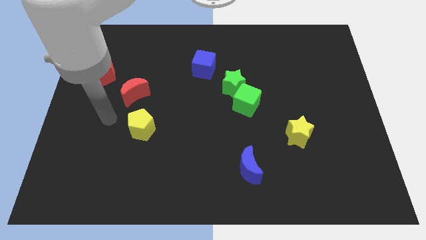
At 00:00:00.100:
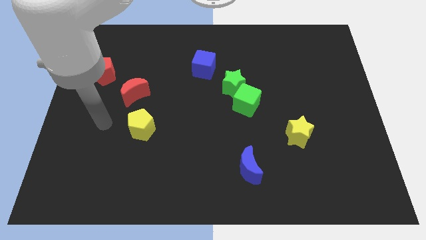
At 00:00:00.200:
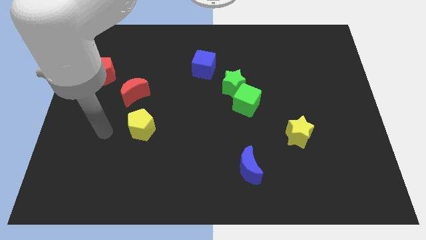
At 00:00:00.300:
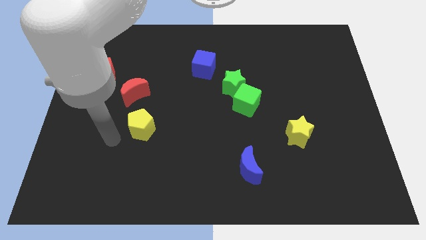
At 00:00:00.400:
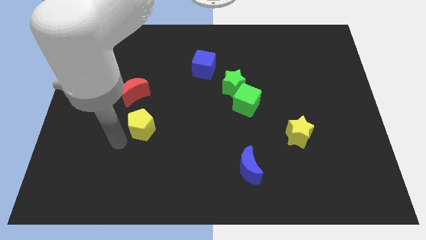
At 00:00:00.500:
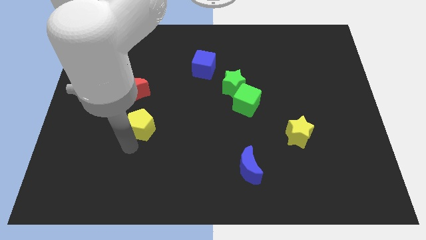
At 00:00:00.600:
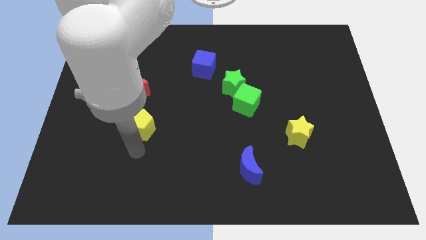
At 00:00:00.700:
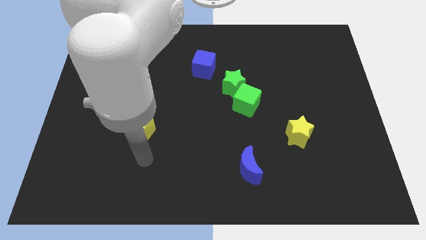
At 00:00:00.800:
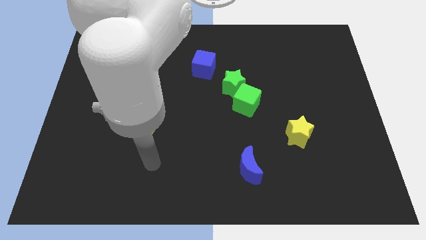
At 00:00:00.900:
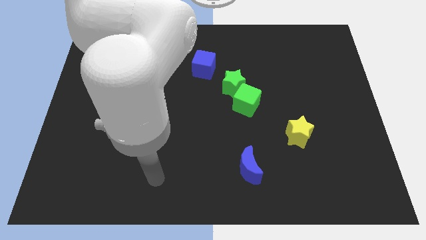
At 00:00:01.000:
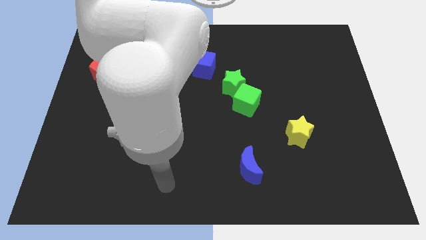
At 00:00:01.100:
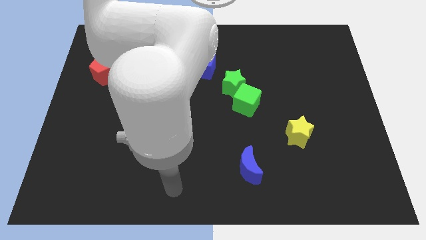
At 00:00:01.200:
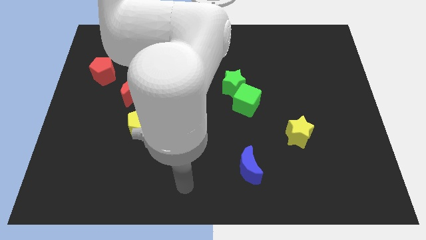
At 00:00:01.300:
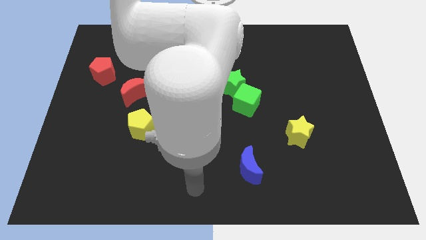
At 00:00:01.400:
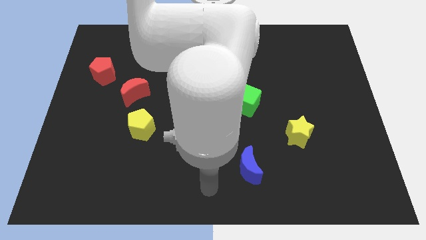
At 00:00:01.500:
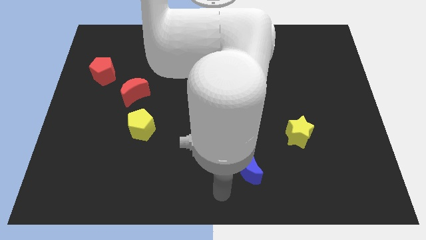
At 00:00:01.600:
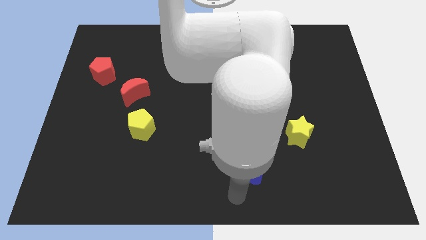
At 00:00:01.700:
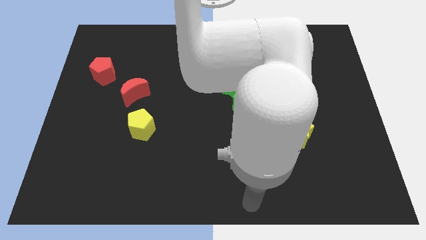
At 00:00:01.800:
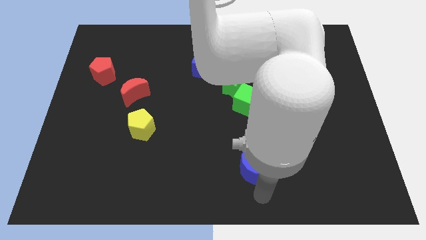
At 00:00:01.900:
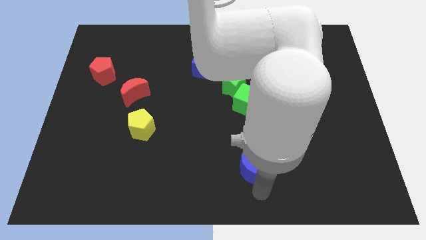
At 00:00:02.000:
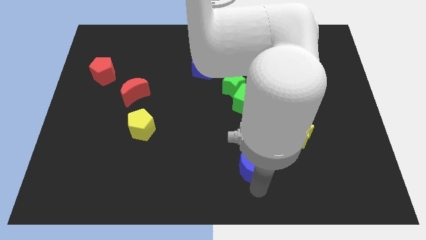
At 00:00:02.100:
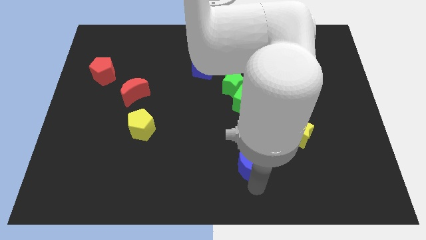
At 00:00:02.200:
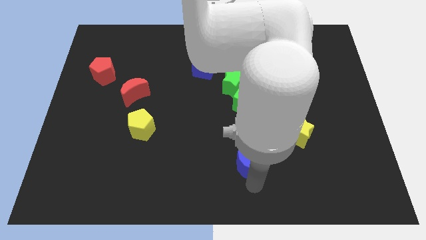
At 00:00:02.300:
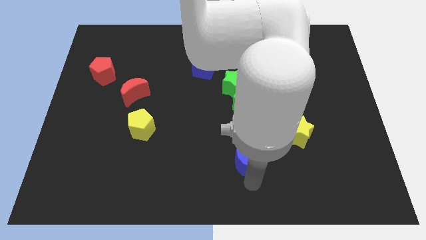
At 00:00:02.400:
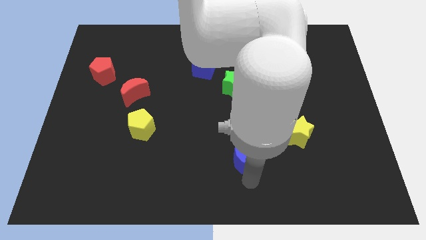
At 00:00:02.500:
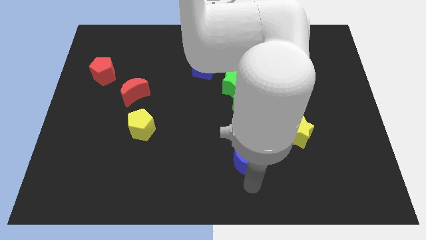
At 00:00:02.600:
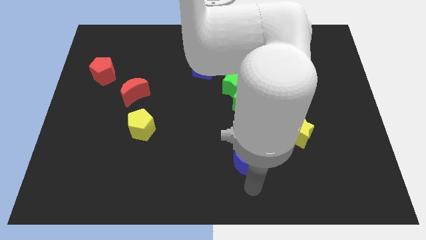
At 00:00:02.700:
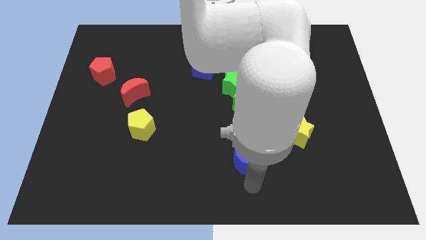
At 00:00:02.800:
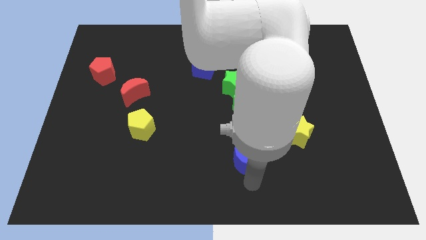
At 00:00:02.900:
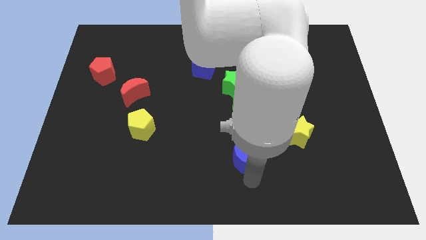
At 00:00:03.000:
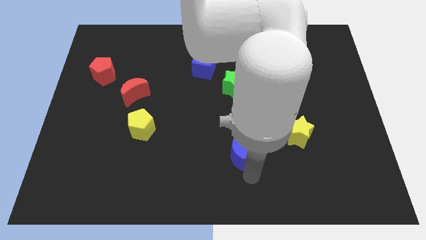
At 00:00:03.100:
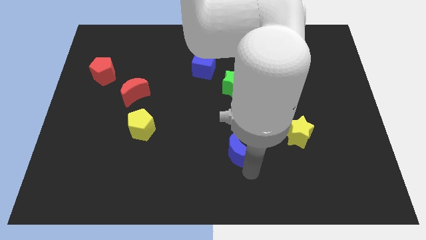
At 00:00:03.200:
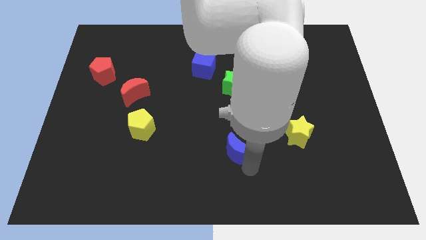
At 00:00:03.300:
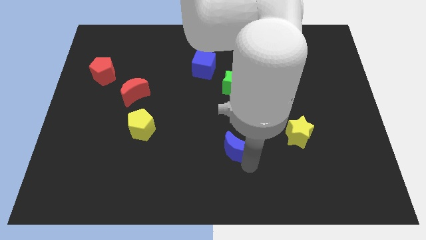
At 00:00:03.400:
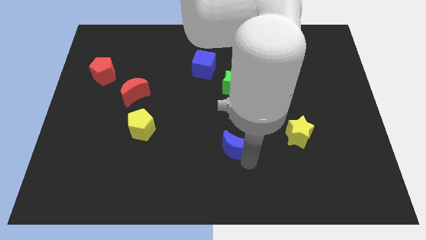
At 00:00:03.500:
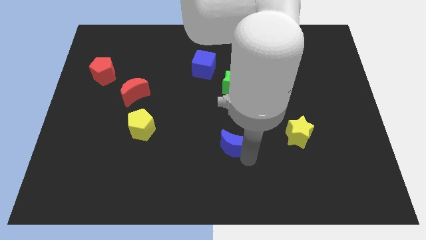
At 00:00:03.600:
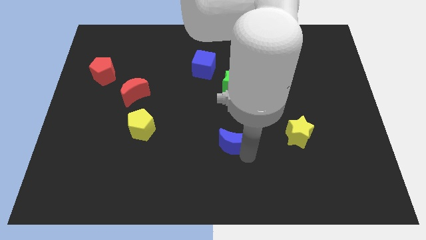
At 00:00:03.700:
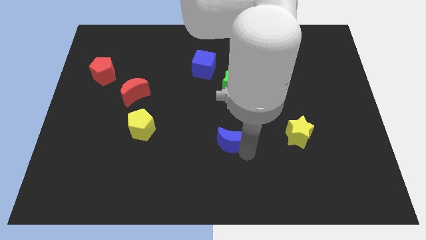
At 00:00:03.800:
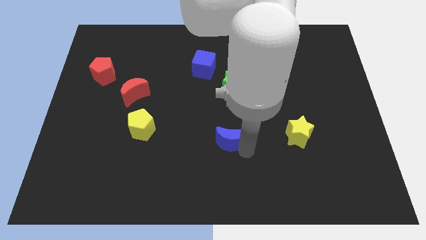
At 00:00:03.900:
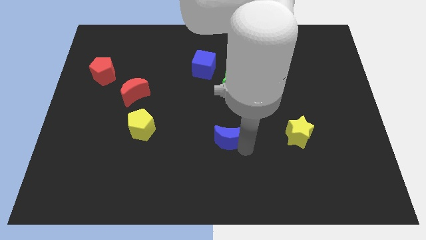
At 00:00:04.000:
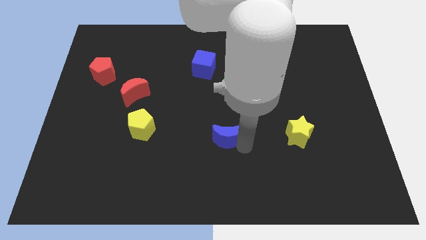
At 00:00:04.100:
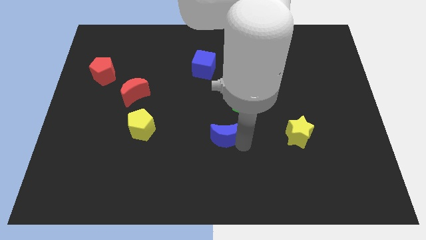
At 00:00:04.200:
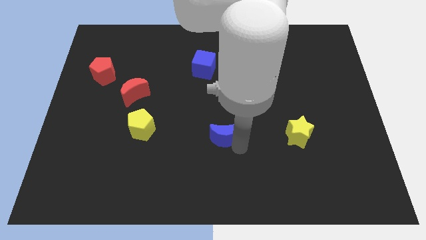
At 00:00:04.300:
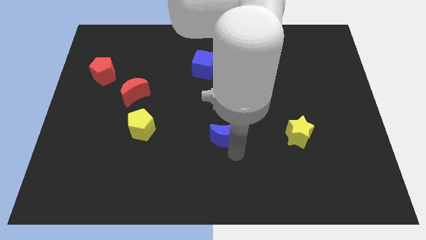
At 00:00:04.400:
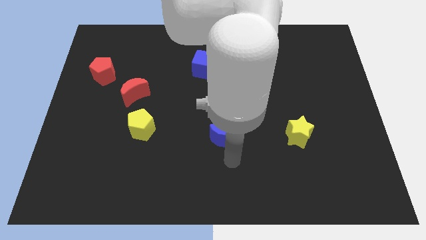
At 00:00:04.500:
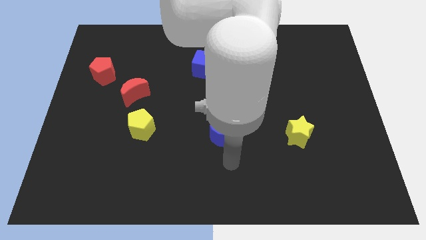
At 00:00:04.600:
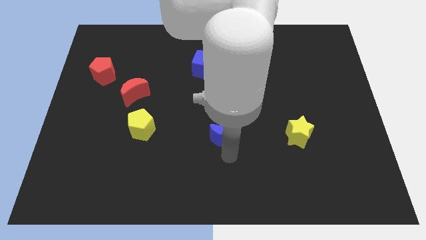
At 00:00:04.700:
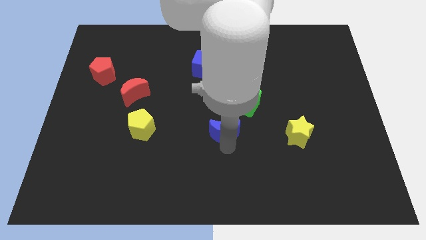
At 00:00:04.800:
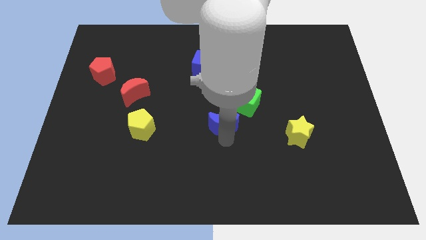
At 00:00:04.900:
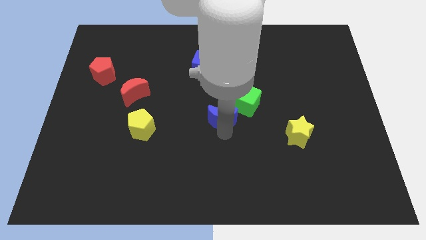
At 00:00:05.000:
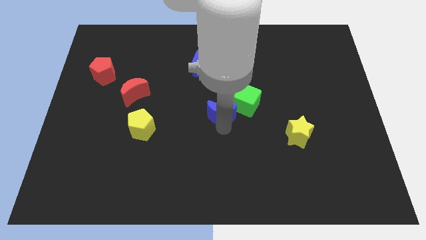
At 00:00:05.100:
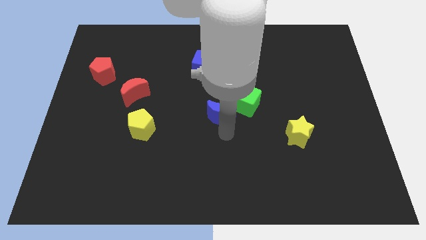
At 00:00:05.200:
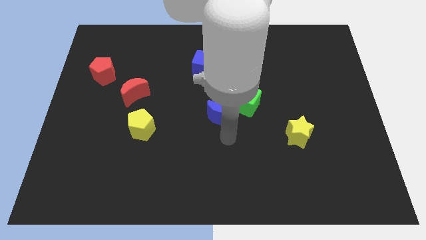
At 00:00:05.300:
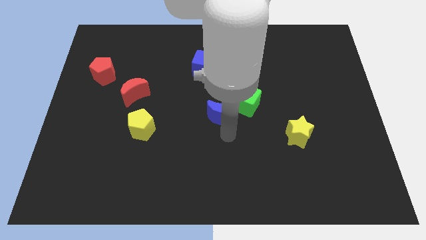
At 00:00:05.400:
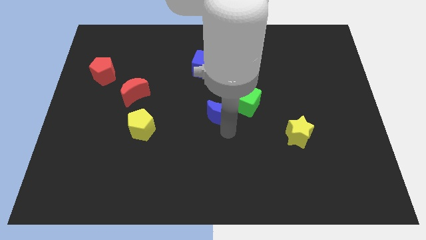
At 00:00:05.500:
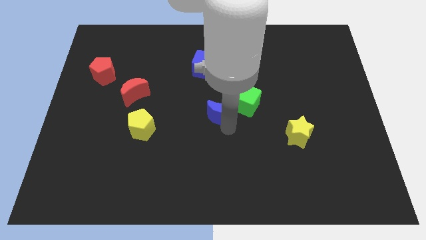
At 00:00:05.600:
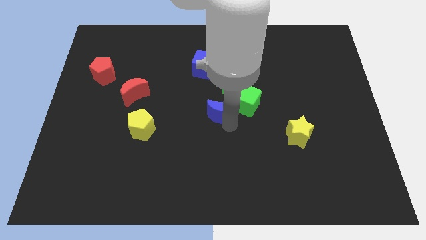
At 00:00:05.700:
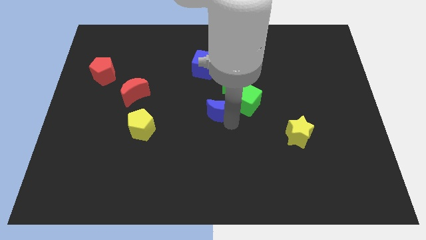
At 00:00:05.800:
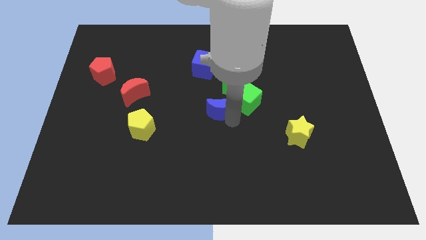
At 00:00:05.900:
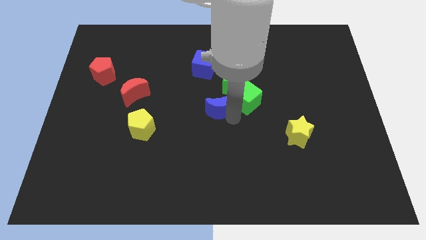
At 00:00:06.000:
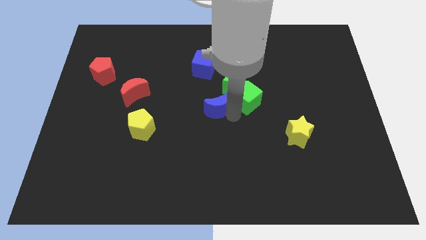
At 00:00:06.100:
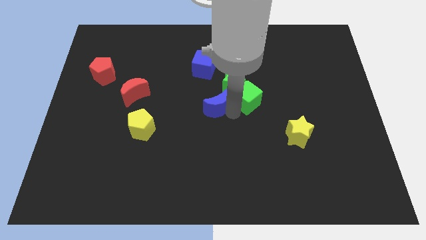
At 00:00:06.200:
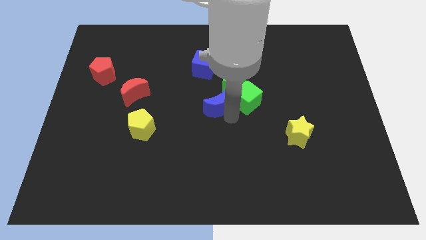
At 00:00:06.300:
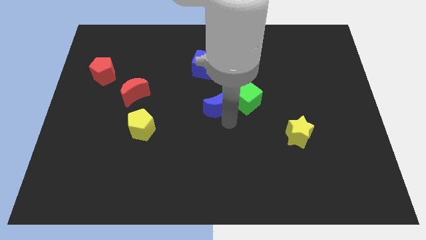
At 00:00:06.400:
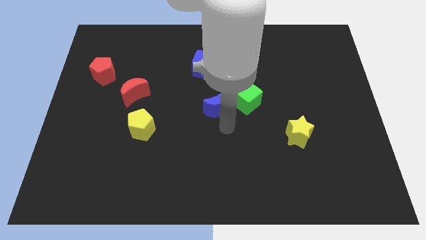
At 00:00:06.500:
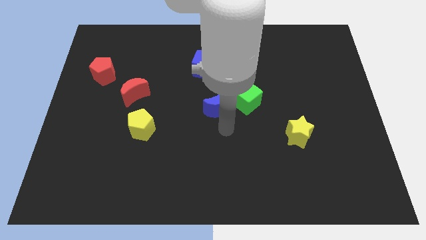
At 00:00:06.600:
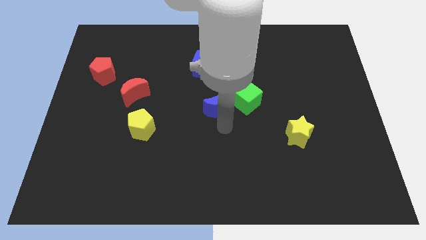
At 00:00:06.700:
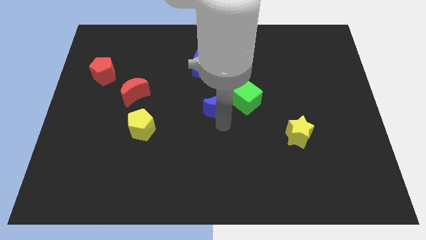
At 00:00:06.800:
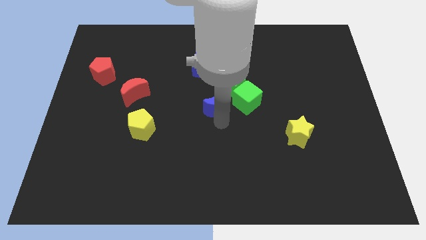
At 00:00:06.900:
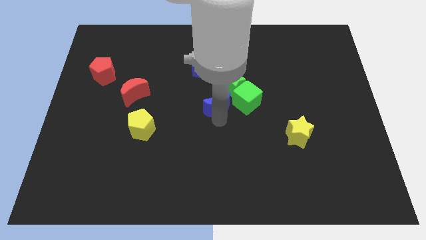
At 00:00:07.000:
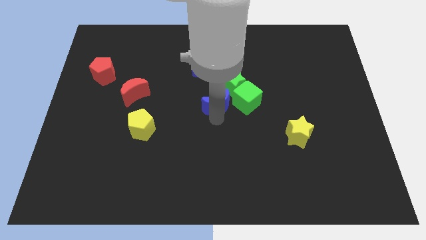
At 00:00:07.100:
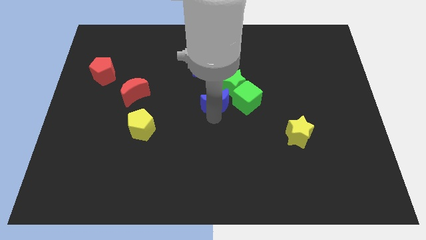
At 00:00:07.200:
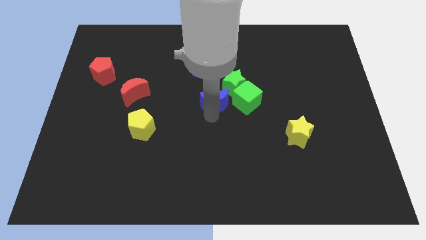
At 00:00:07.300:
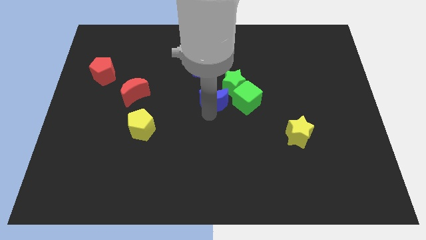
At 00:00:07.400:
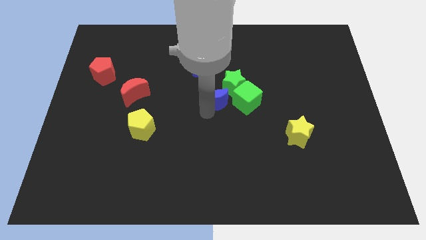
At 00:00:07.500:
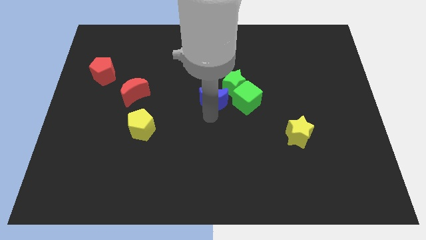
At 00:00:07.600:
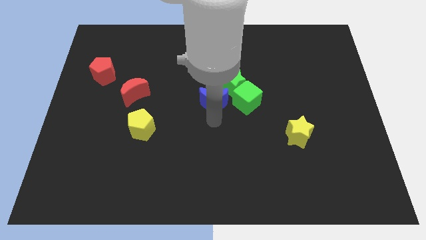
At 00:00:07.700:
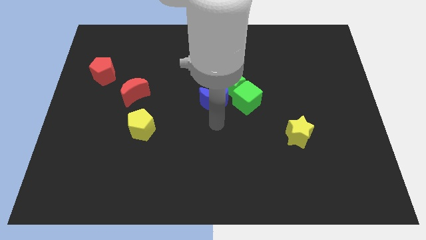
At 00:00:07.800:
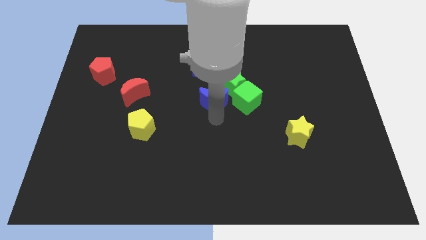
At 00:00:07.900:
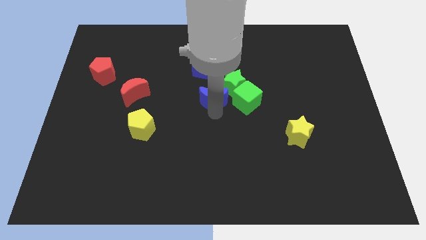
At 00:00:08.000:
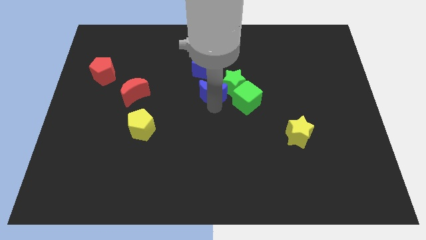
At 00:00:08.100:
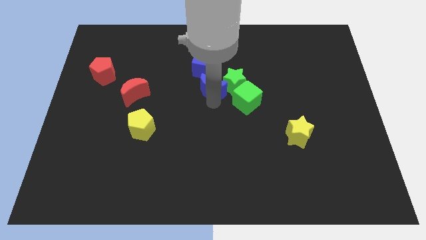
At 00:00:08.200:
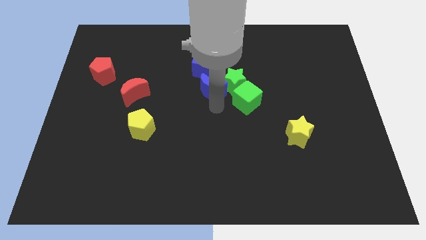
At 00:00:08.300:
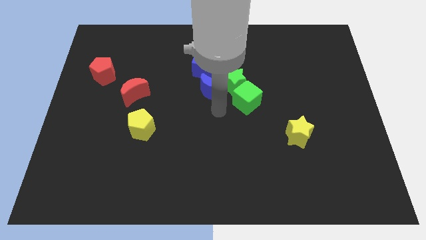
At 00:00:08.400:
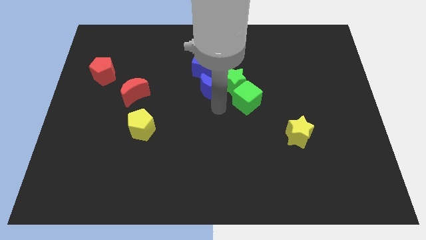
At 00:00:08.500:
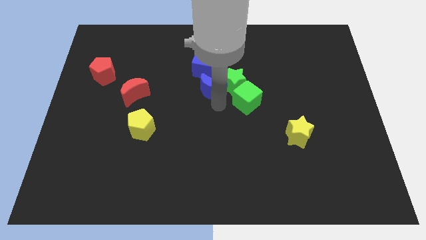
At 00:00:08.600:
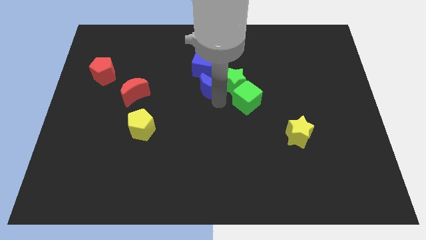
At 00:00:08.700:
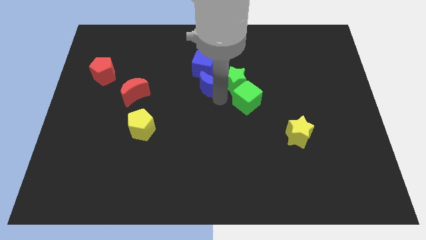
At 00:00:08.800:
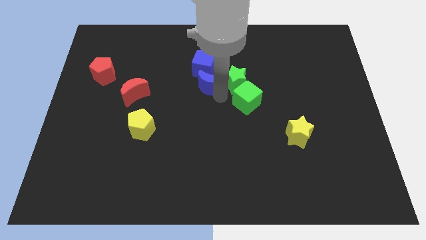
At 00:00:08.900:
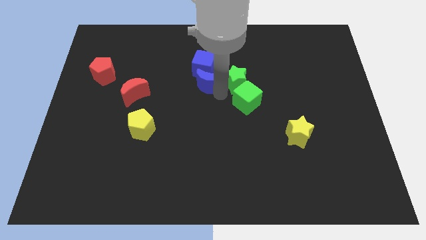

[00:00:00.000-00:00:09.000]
move the blue moon towards the blue cube
